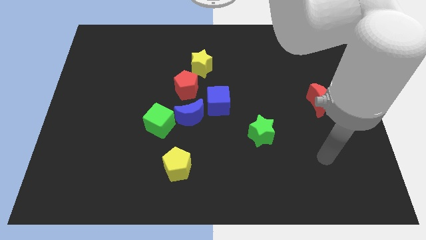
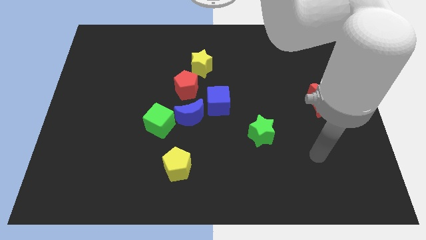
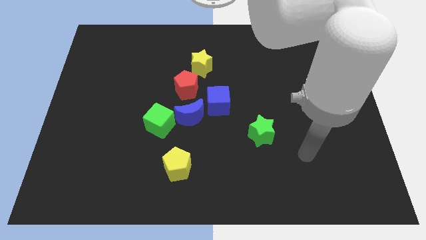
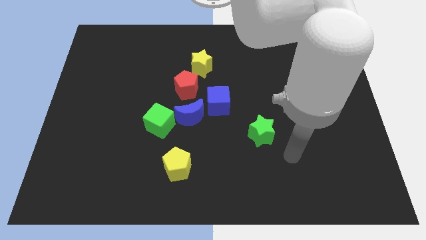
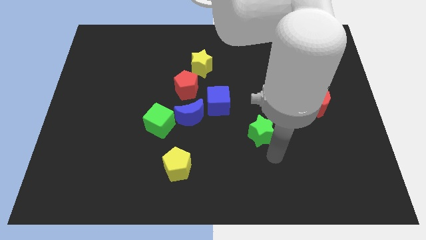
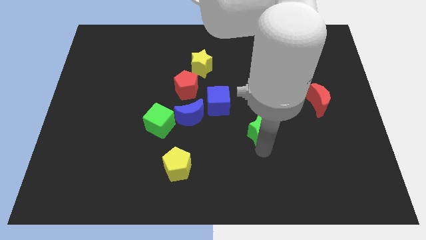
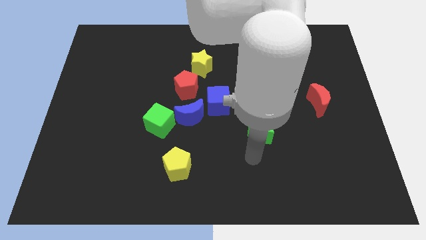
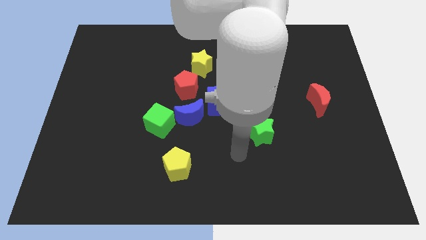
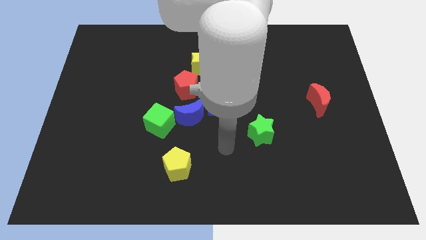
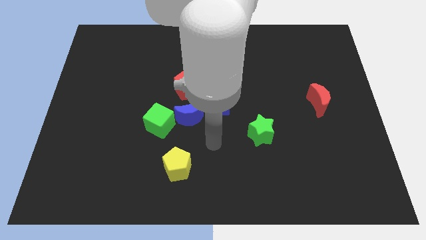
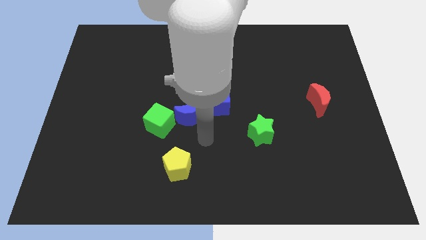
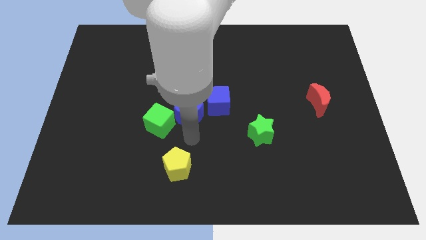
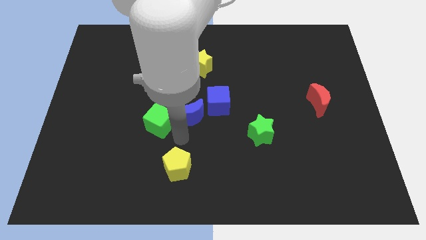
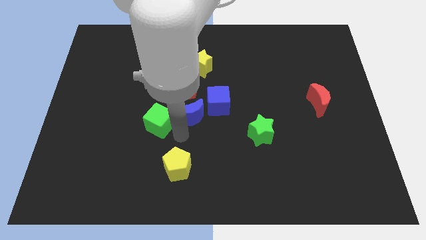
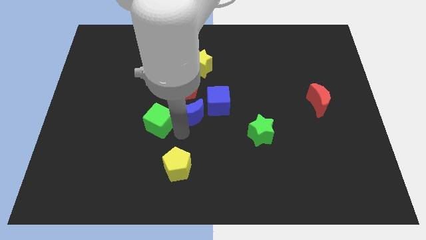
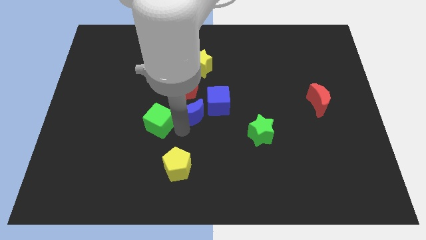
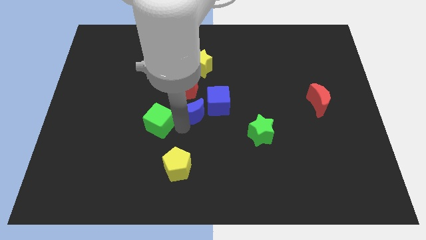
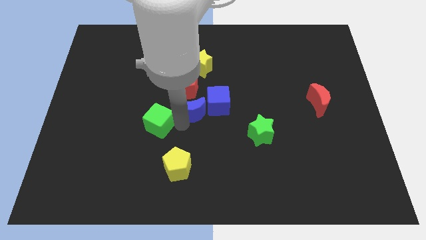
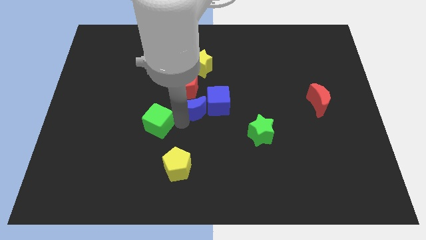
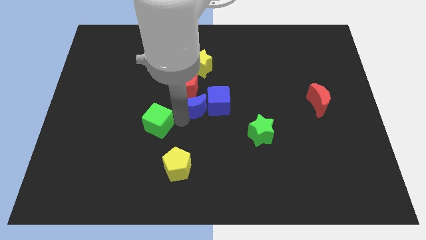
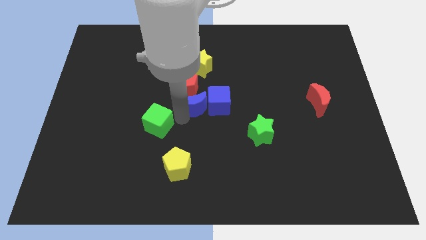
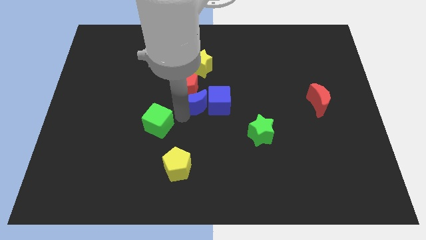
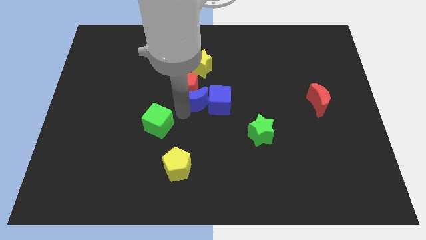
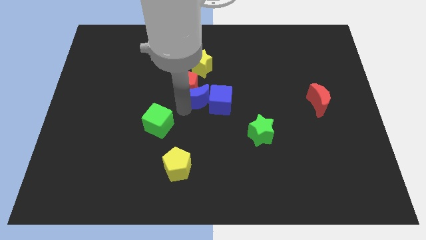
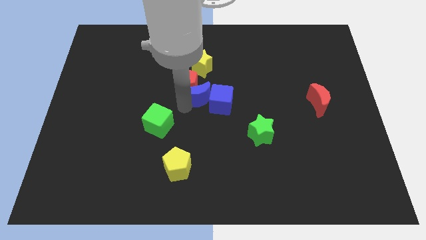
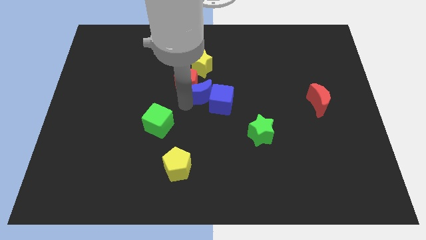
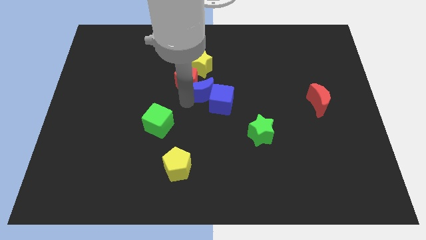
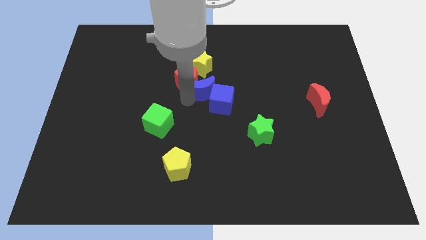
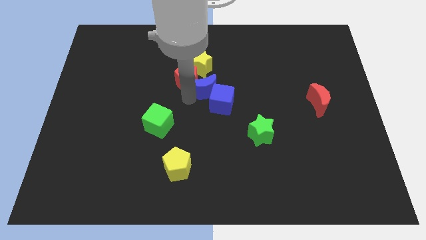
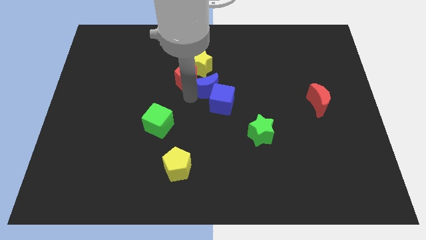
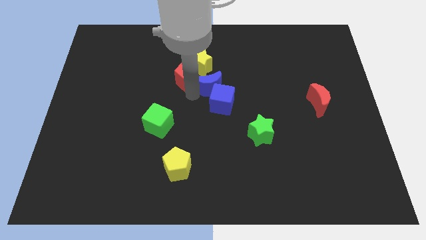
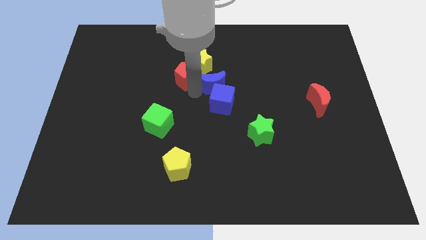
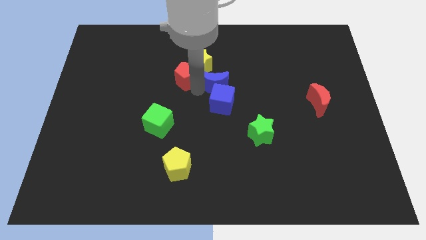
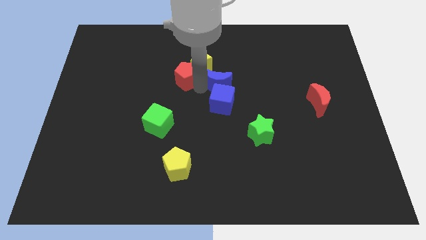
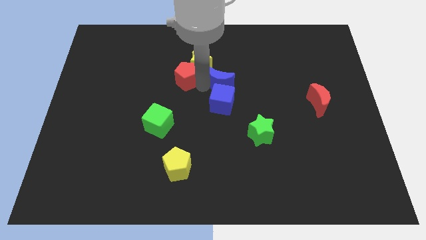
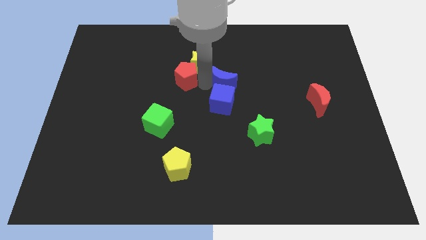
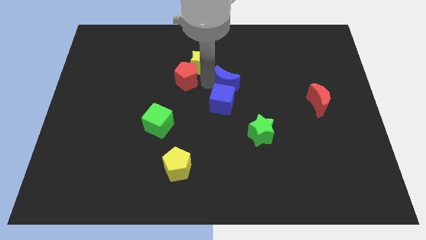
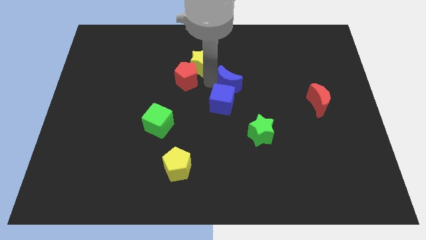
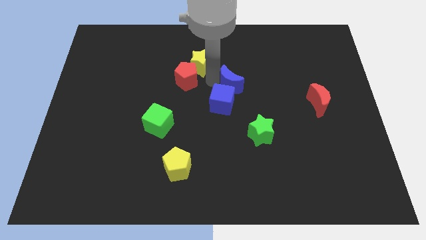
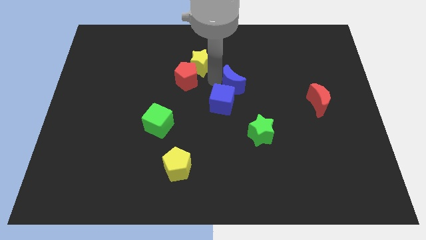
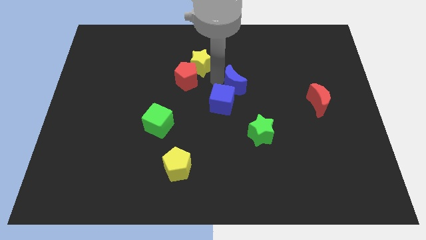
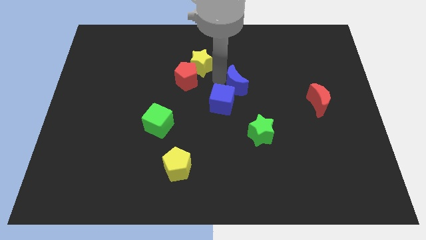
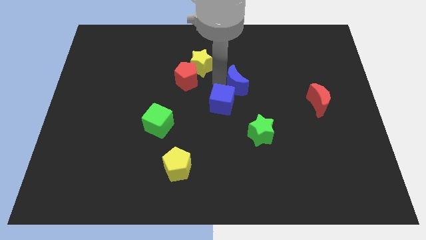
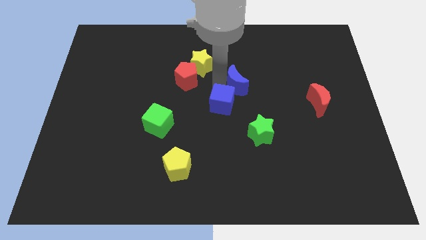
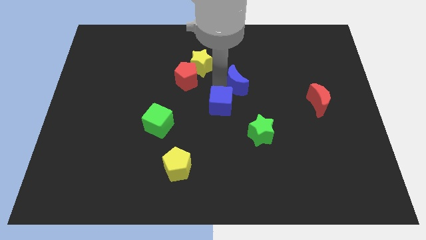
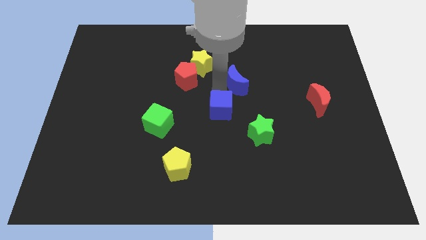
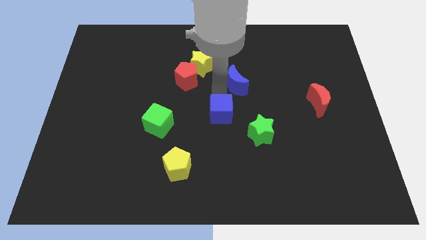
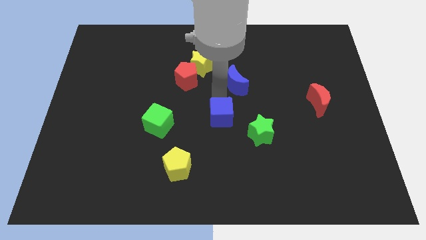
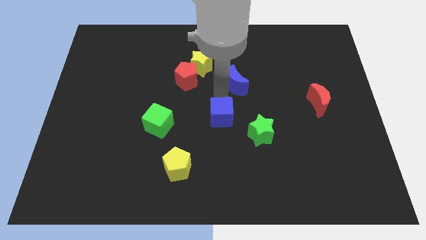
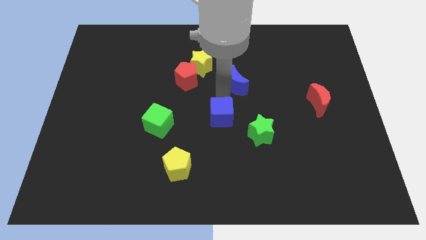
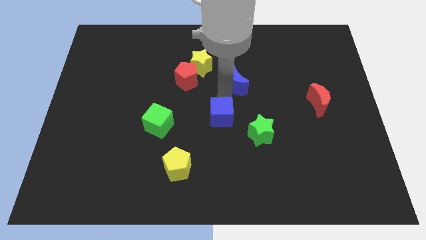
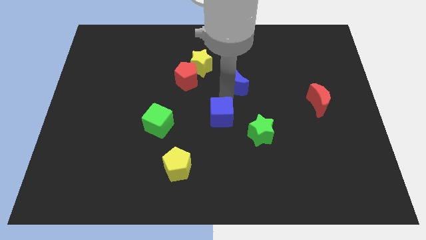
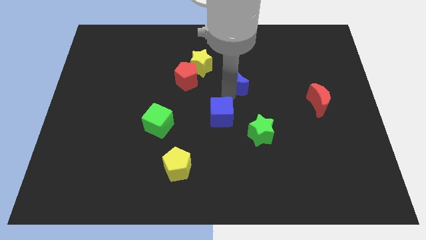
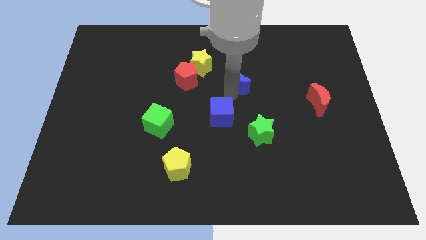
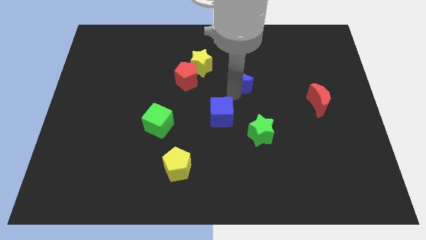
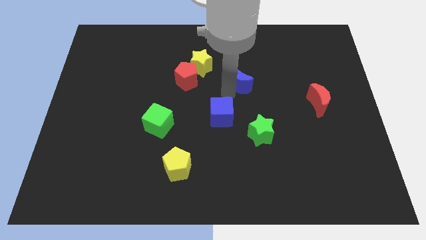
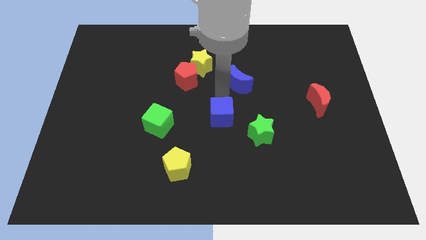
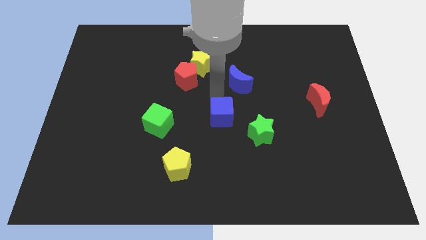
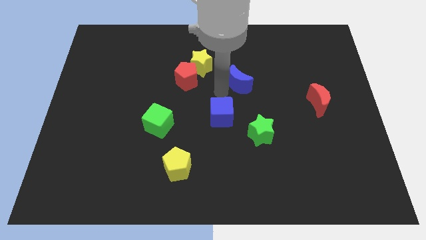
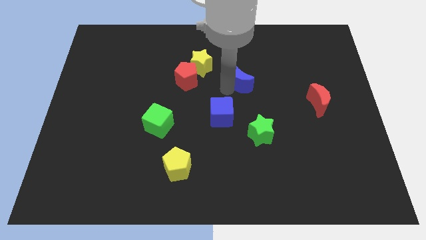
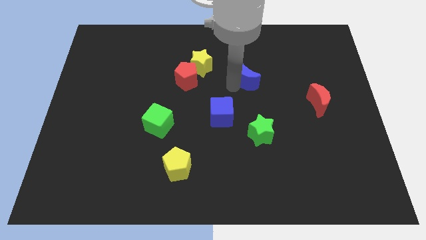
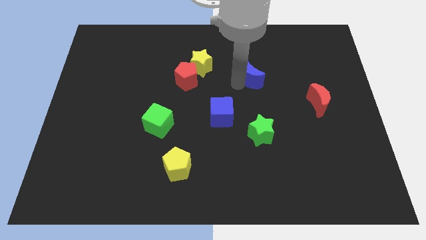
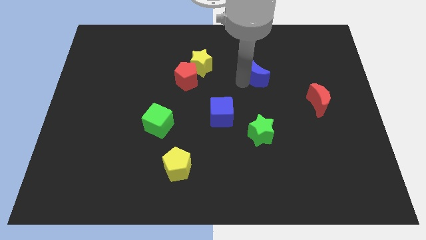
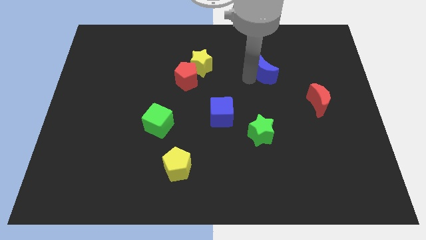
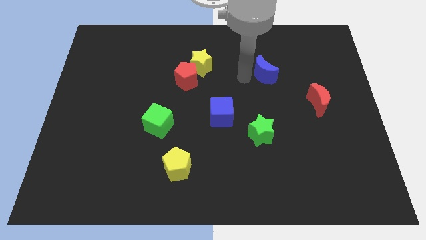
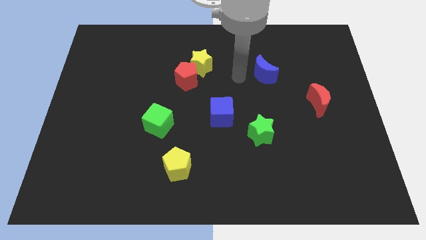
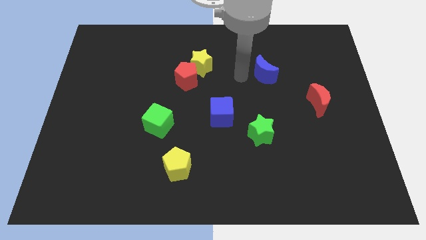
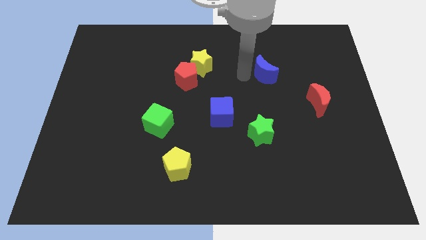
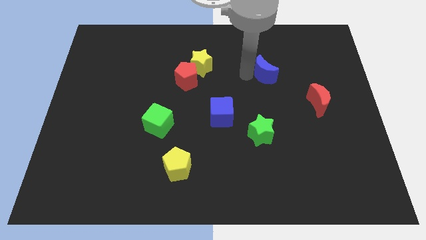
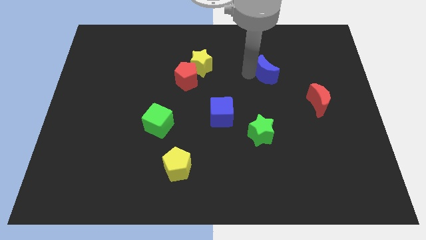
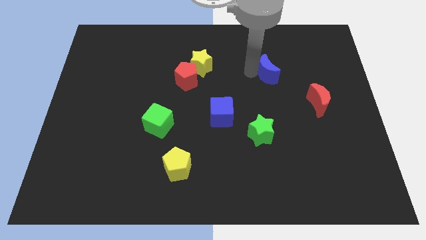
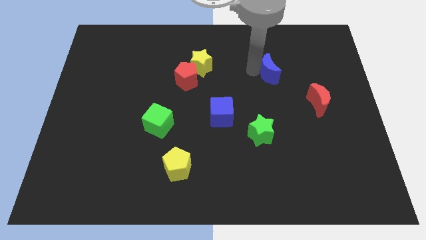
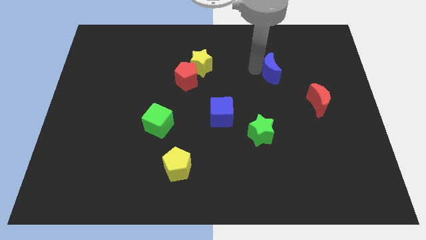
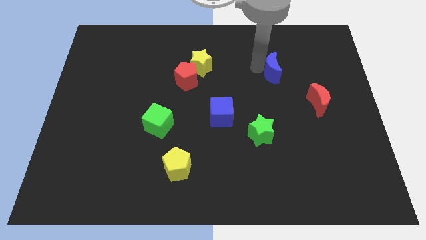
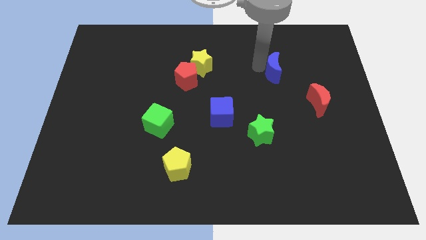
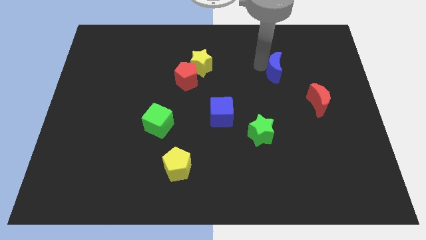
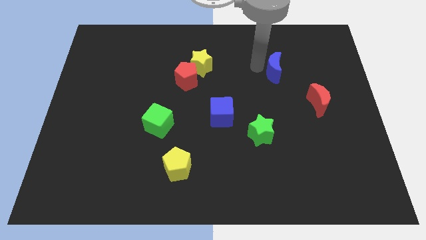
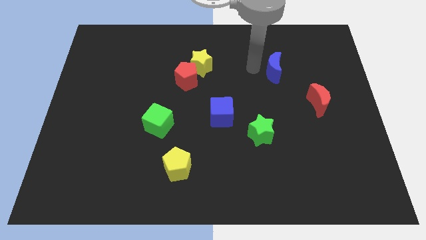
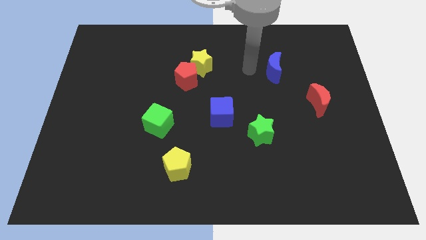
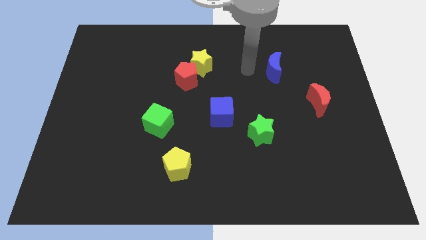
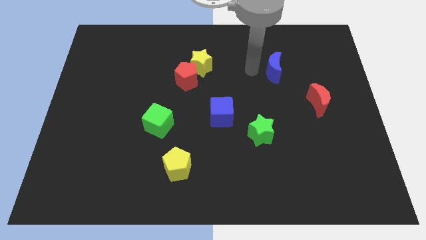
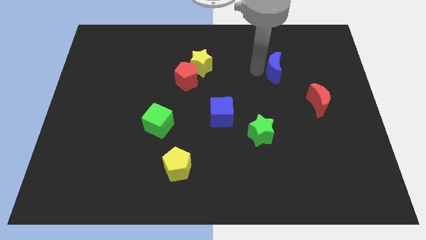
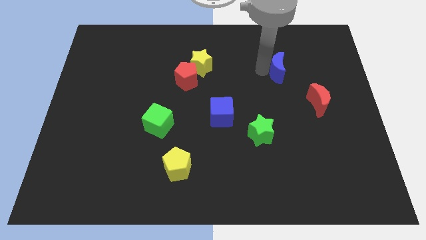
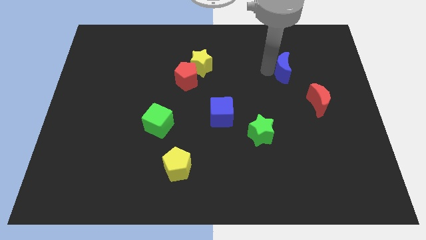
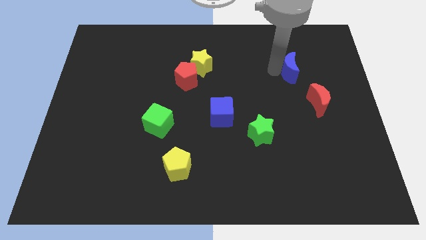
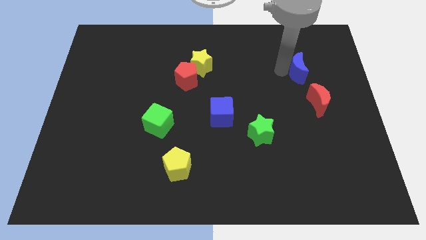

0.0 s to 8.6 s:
put the blue moon to the top side of the red moon
